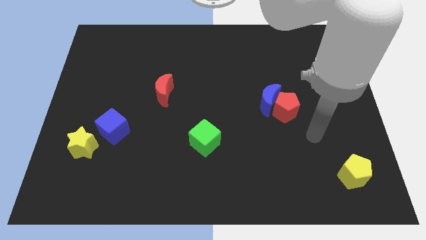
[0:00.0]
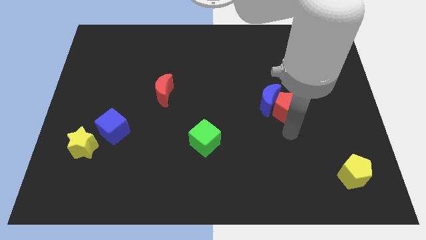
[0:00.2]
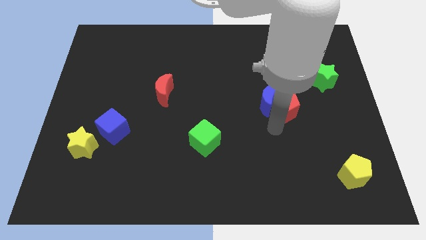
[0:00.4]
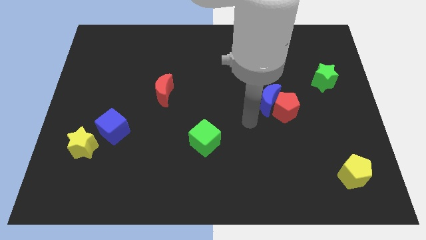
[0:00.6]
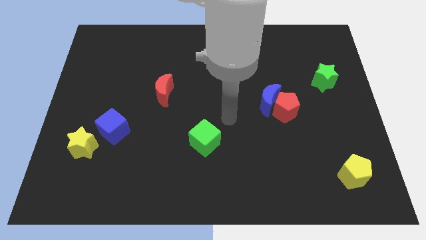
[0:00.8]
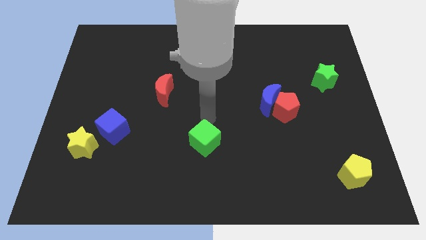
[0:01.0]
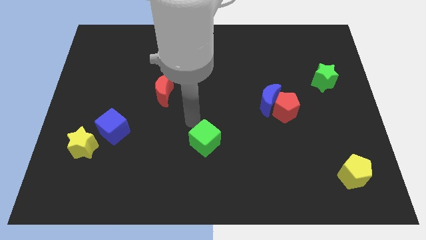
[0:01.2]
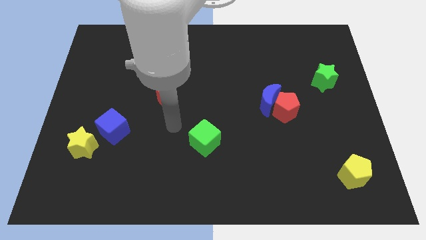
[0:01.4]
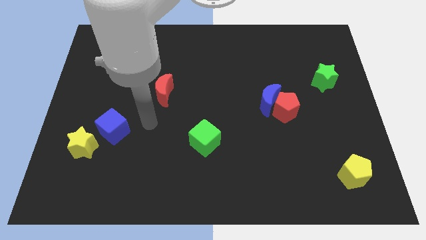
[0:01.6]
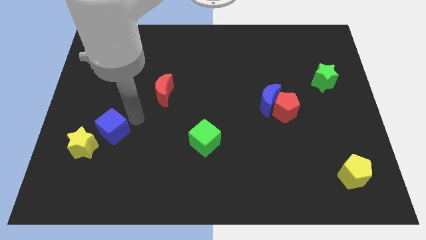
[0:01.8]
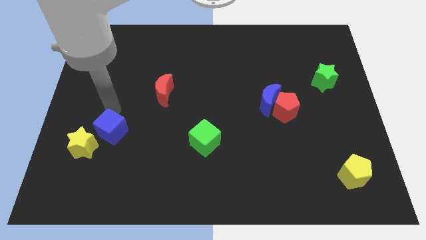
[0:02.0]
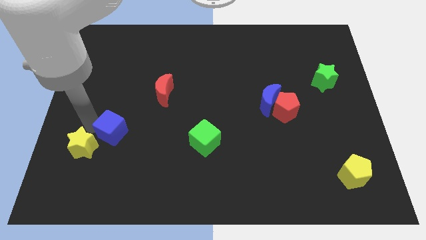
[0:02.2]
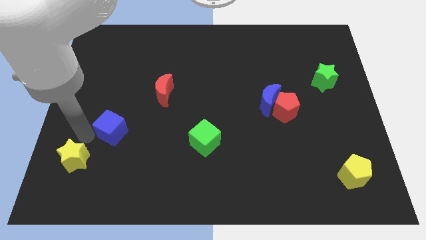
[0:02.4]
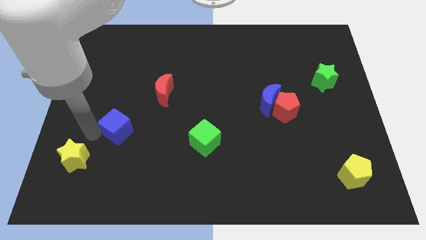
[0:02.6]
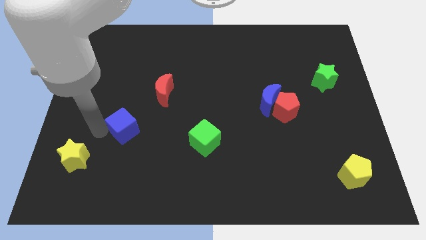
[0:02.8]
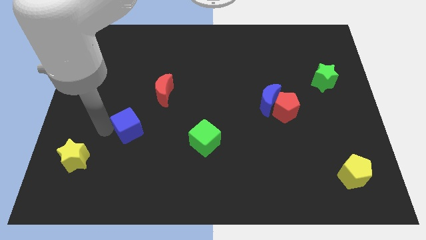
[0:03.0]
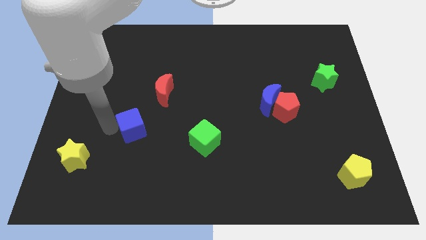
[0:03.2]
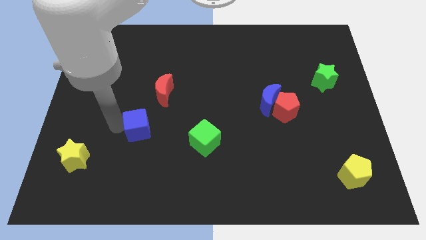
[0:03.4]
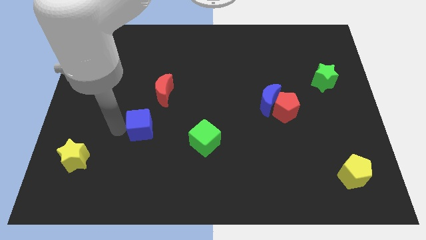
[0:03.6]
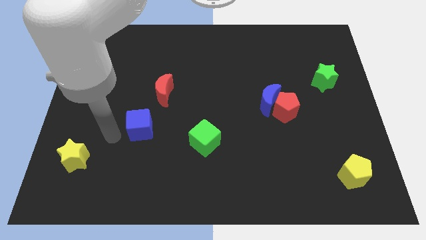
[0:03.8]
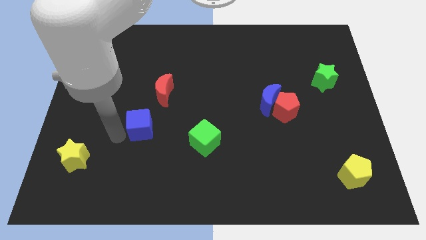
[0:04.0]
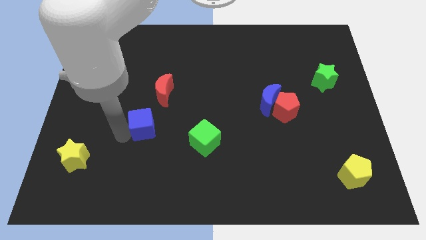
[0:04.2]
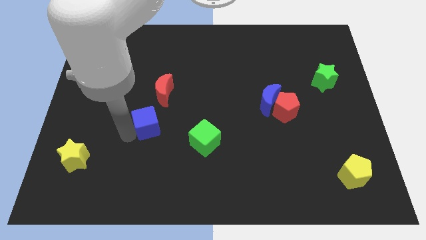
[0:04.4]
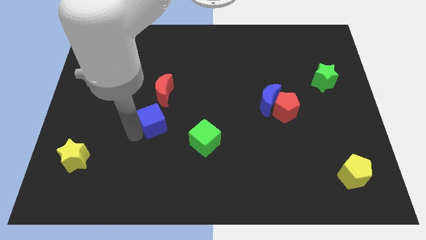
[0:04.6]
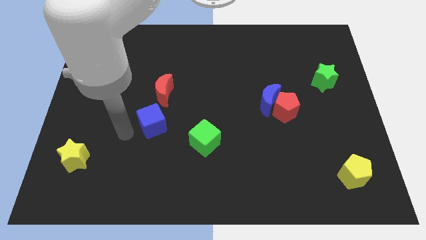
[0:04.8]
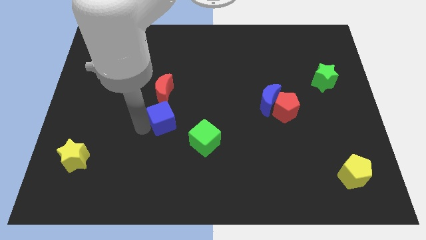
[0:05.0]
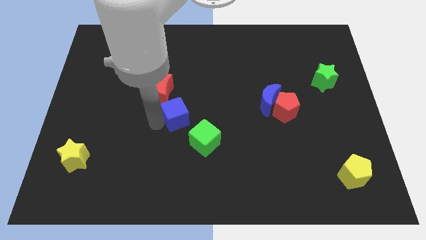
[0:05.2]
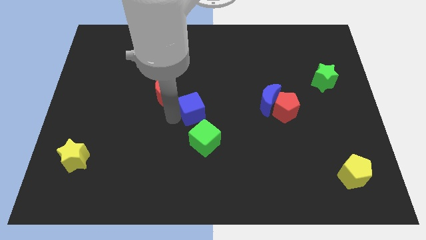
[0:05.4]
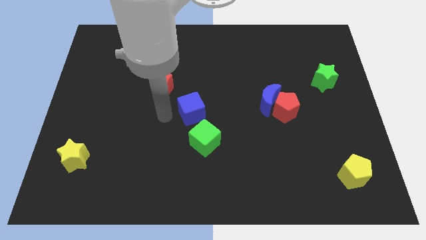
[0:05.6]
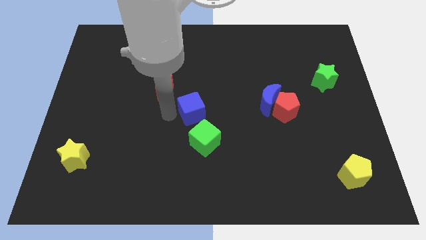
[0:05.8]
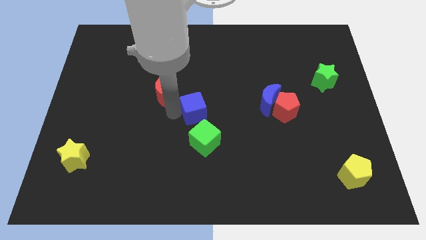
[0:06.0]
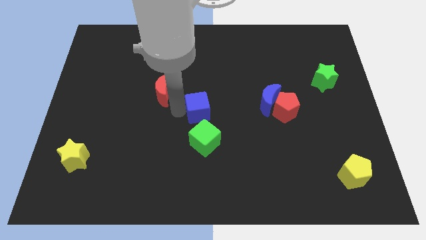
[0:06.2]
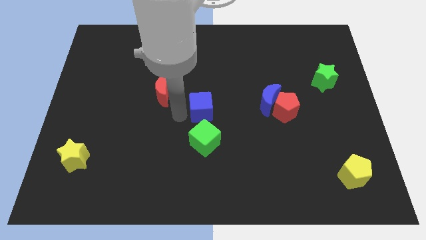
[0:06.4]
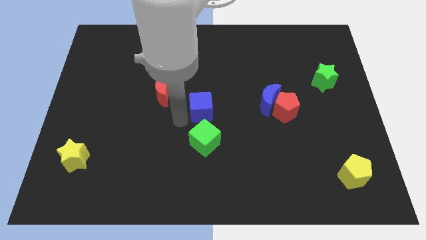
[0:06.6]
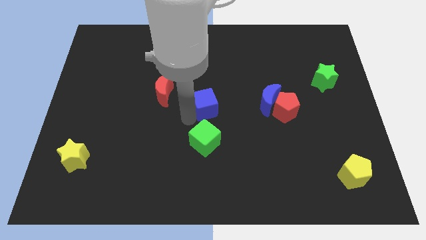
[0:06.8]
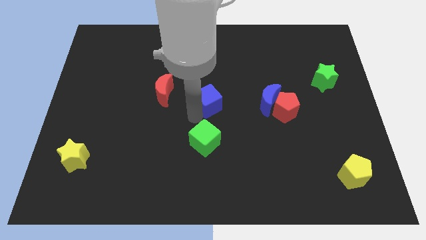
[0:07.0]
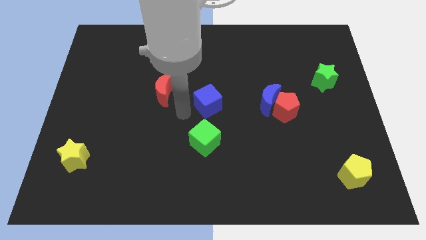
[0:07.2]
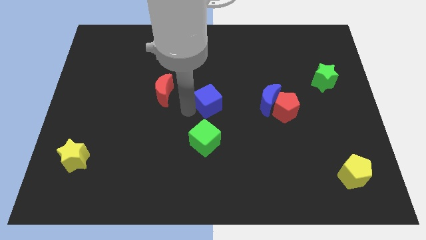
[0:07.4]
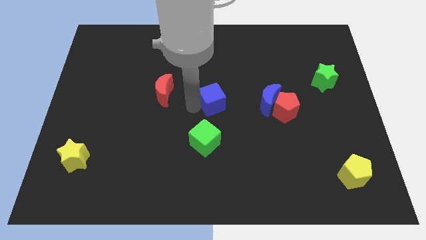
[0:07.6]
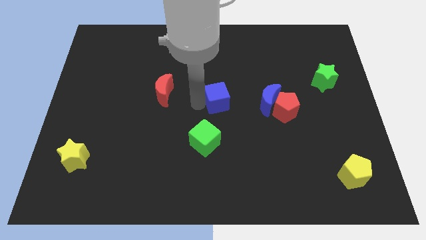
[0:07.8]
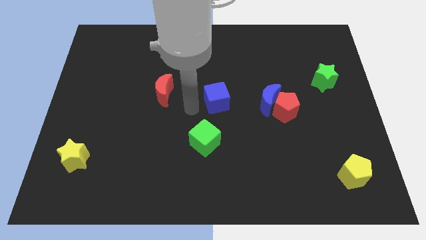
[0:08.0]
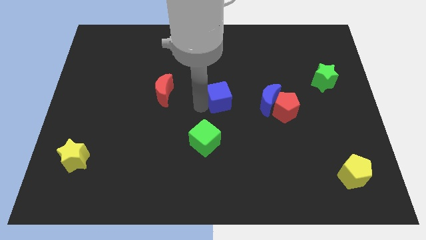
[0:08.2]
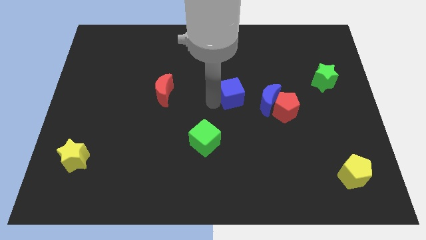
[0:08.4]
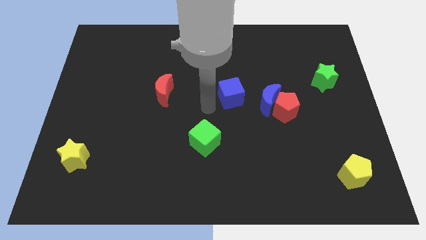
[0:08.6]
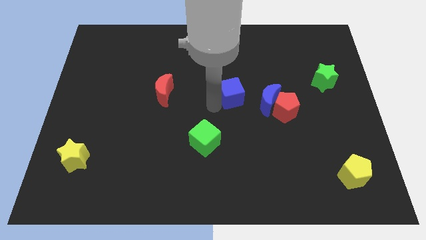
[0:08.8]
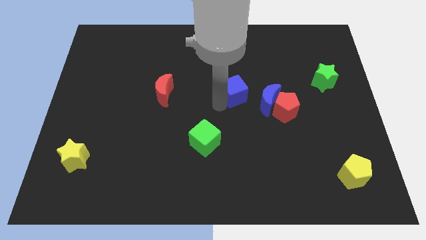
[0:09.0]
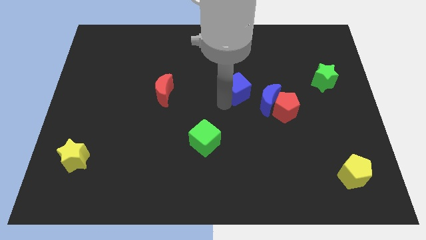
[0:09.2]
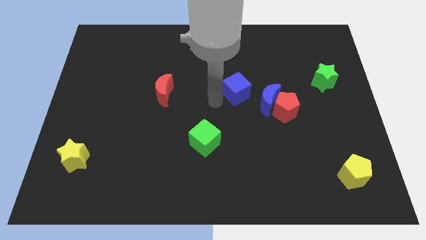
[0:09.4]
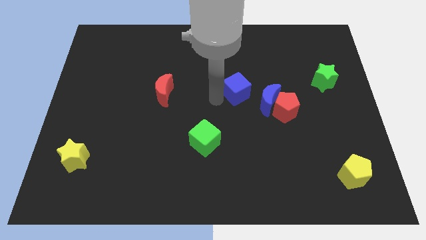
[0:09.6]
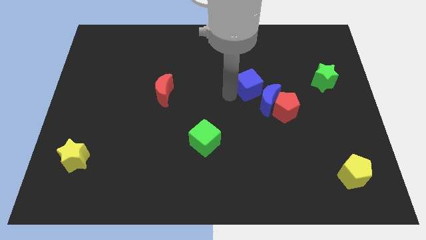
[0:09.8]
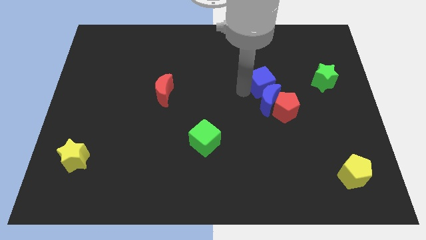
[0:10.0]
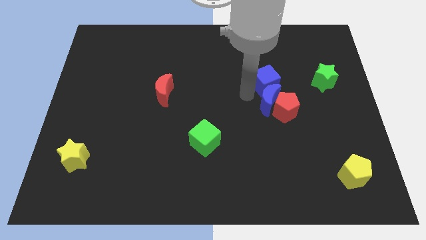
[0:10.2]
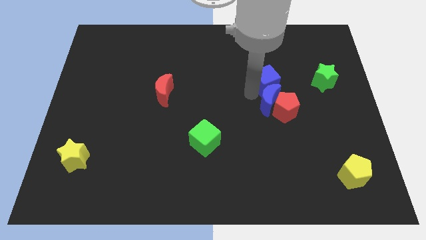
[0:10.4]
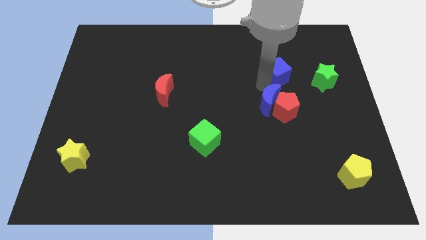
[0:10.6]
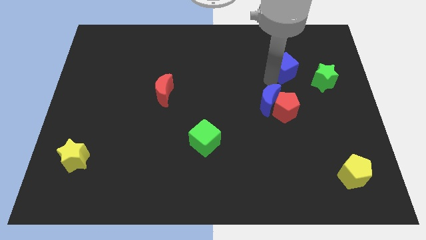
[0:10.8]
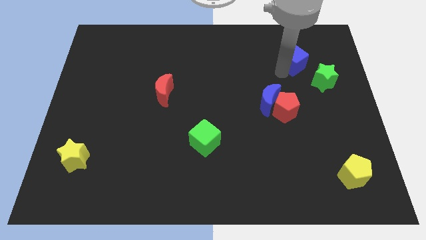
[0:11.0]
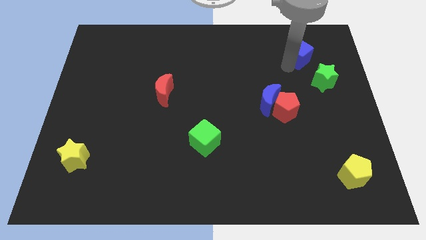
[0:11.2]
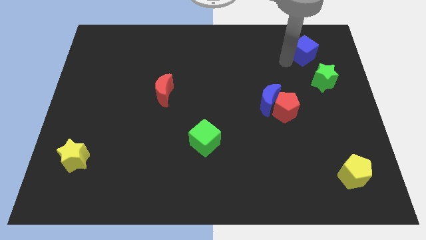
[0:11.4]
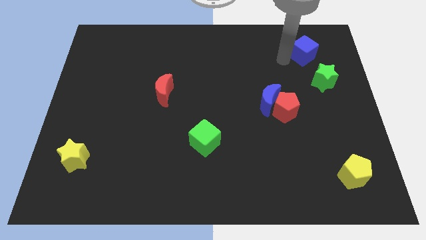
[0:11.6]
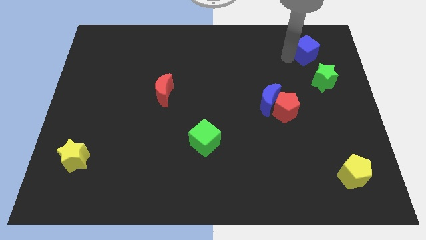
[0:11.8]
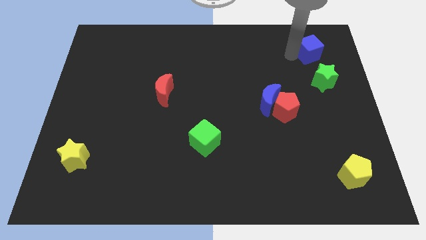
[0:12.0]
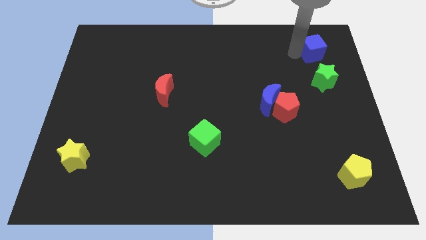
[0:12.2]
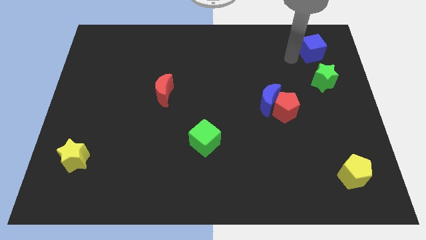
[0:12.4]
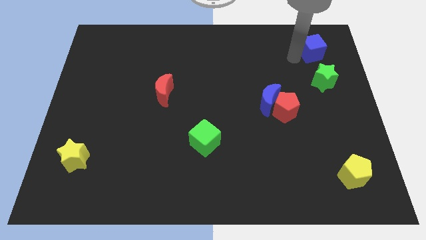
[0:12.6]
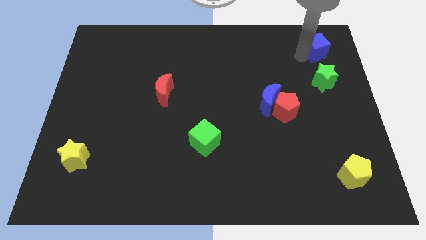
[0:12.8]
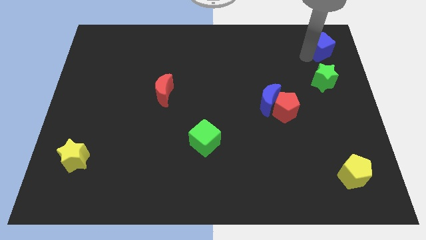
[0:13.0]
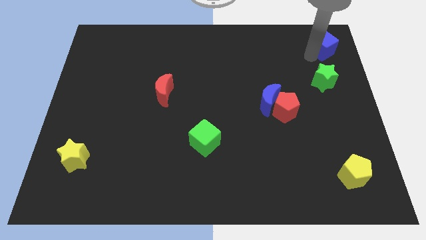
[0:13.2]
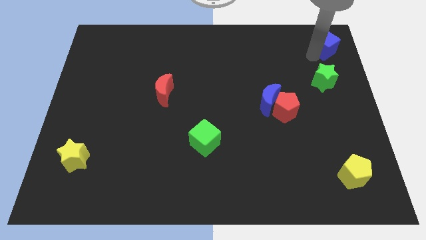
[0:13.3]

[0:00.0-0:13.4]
push the blue cube to the top right of the board

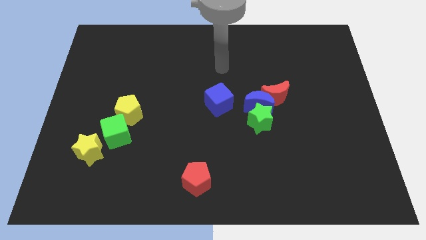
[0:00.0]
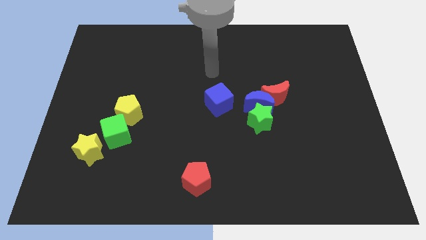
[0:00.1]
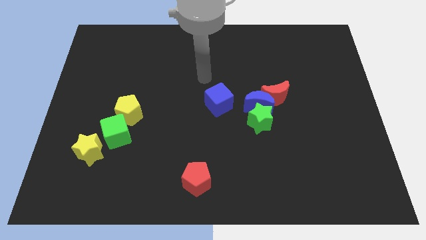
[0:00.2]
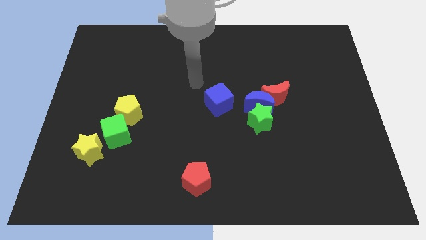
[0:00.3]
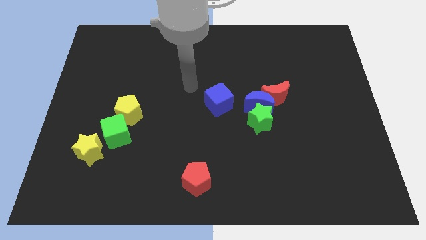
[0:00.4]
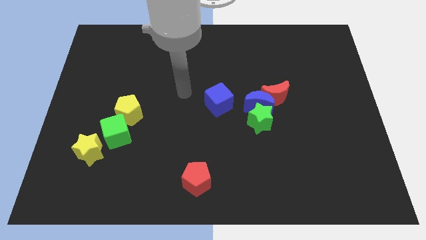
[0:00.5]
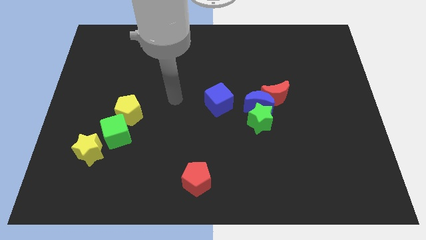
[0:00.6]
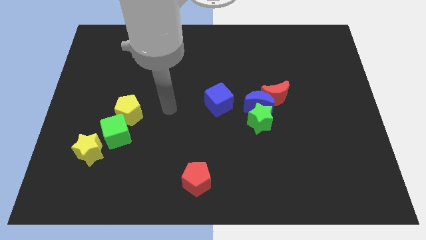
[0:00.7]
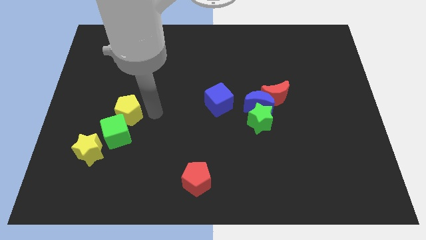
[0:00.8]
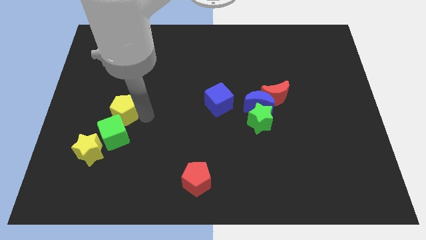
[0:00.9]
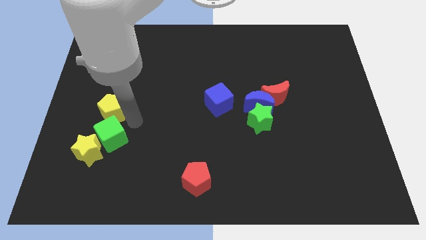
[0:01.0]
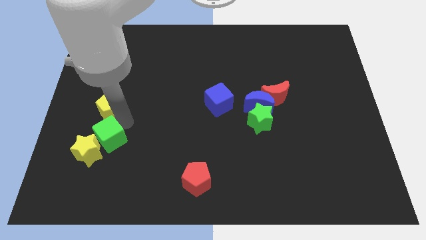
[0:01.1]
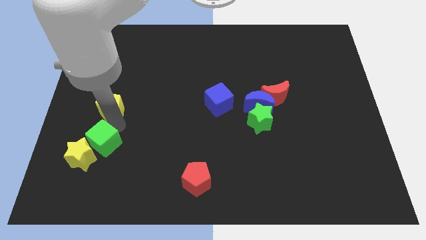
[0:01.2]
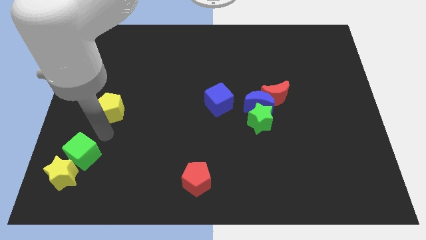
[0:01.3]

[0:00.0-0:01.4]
slide the yellow star to the bottom left corner
